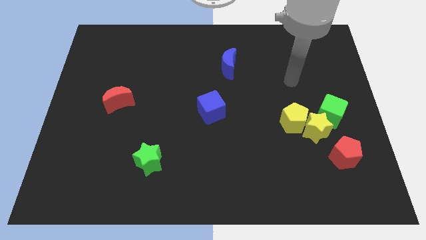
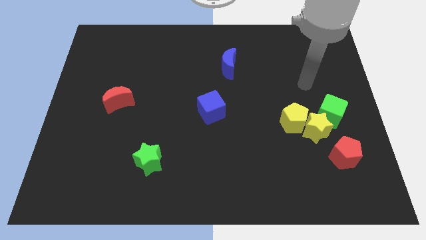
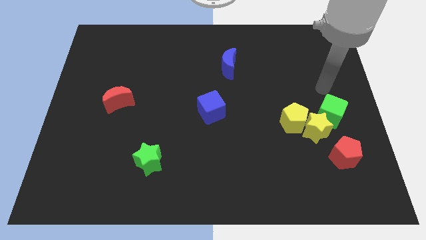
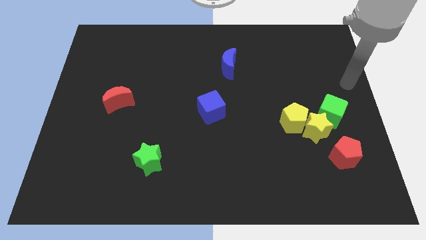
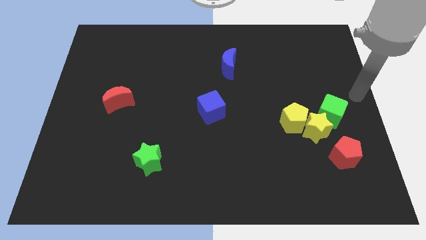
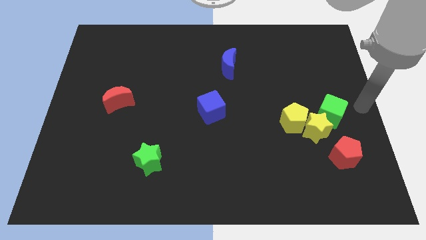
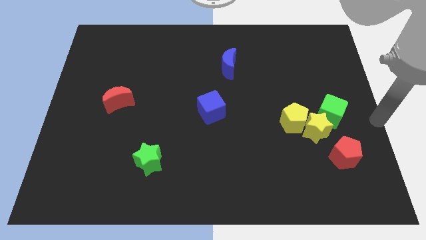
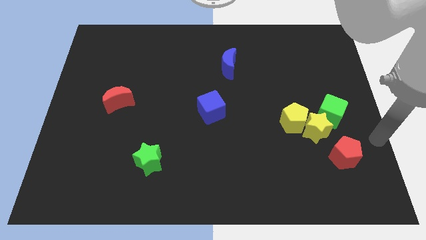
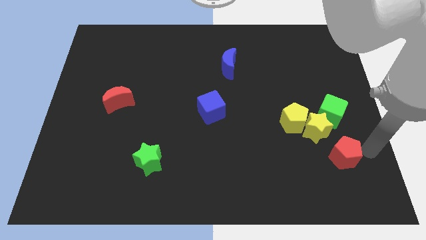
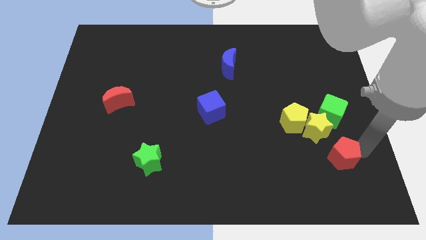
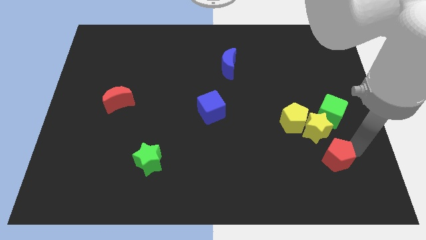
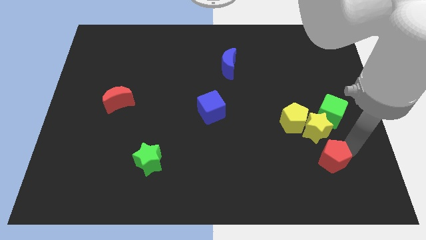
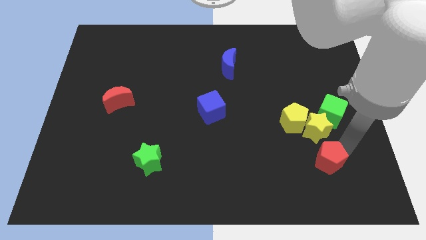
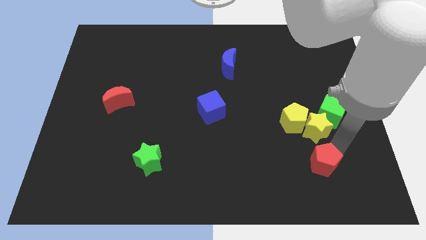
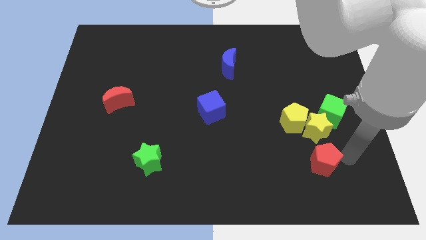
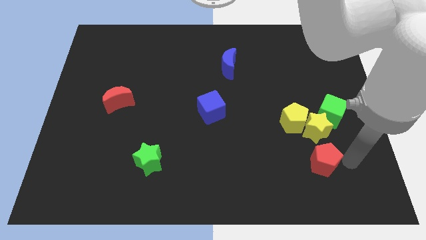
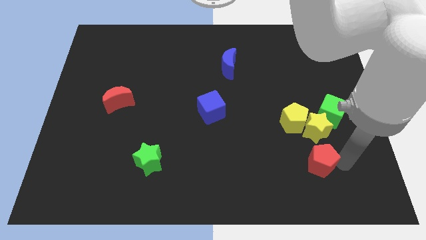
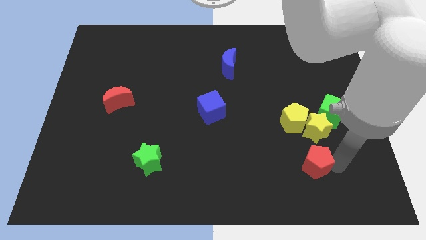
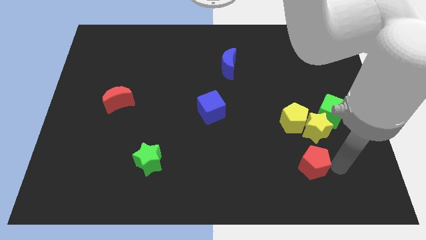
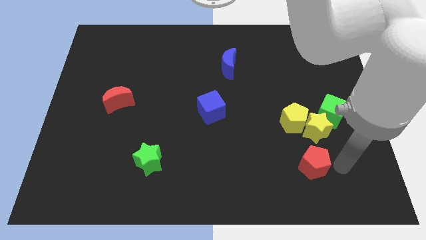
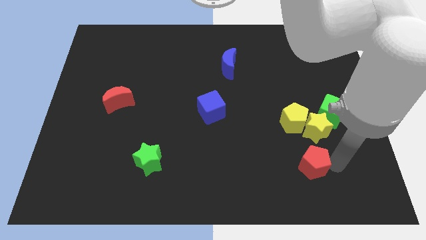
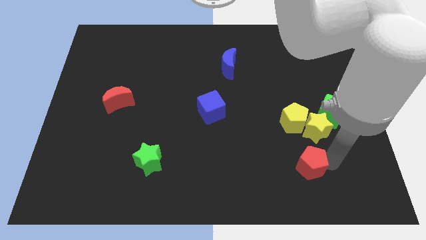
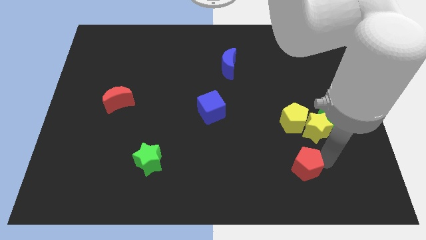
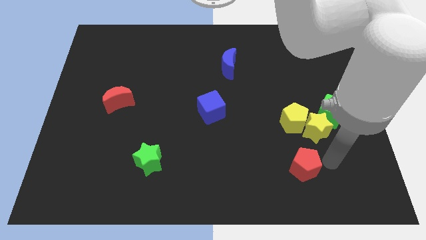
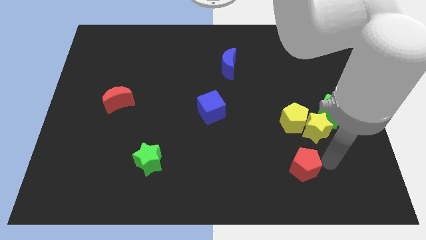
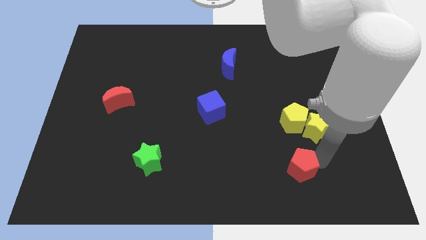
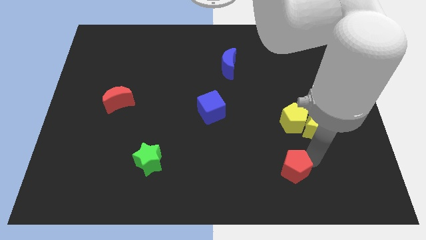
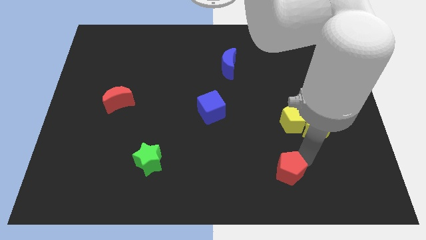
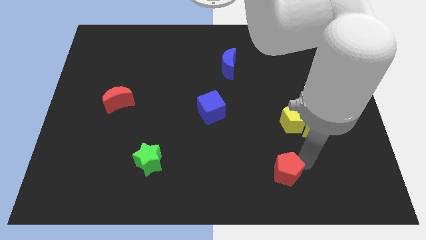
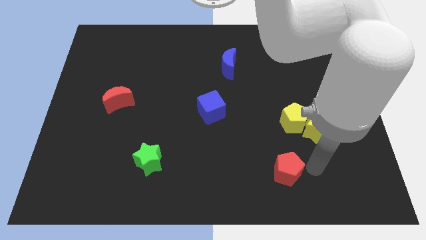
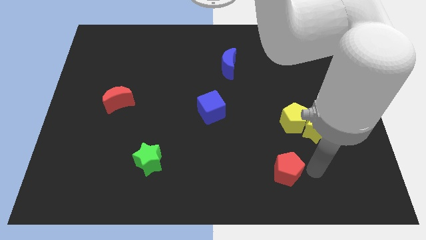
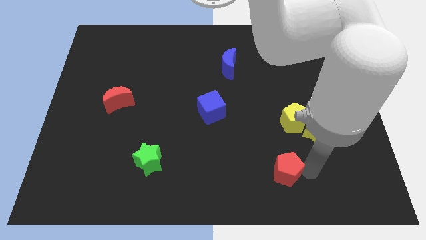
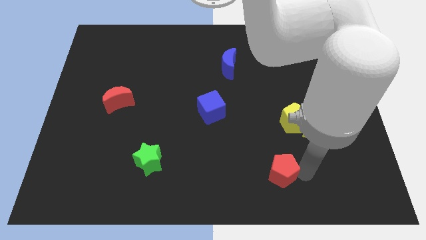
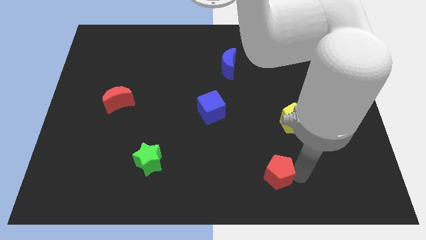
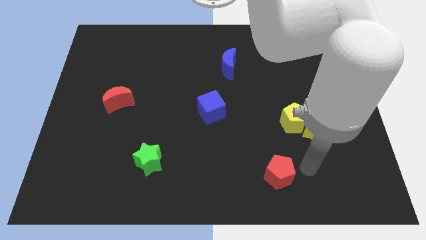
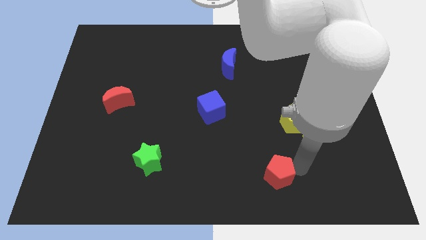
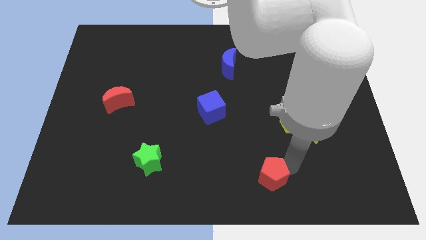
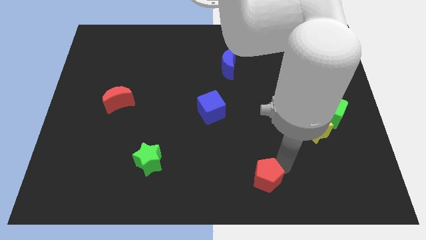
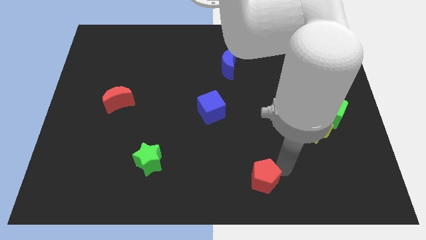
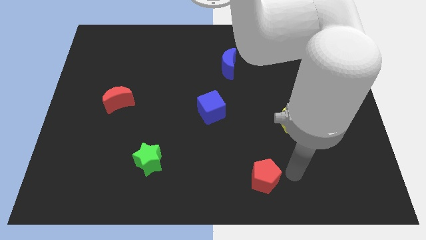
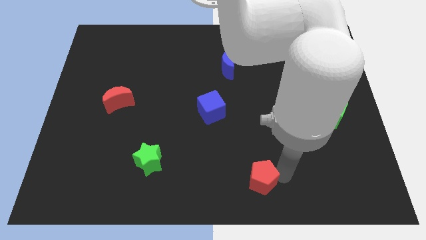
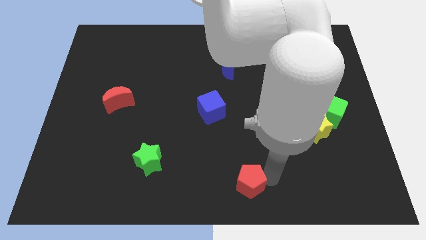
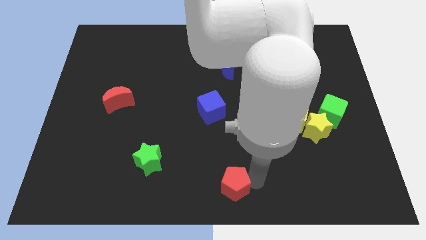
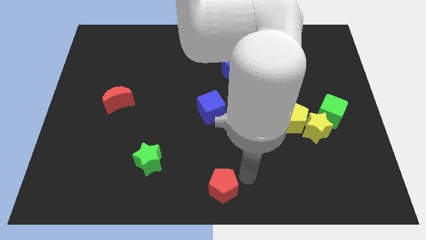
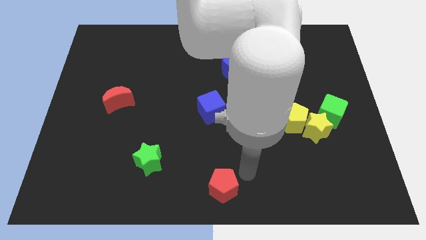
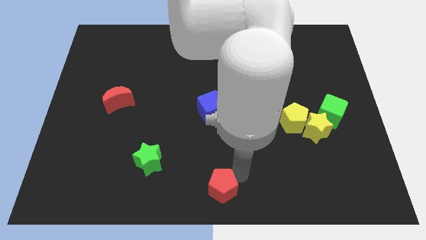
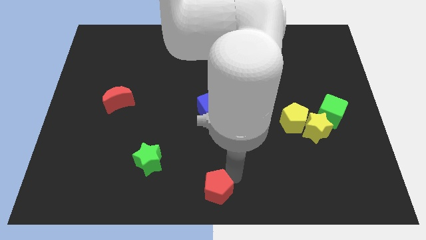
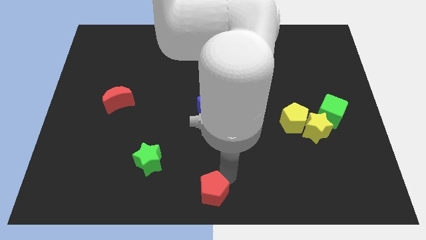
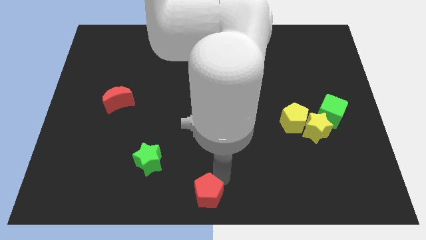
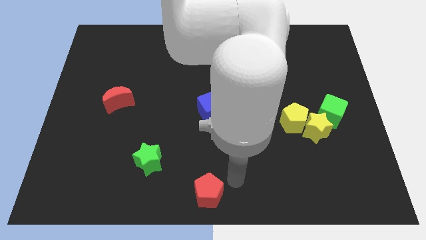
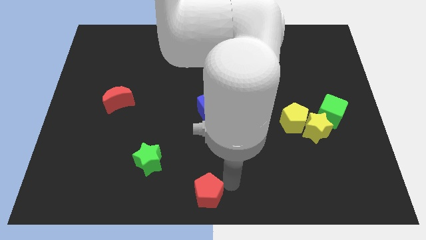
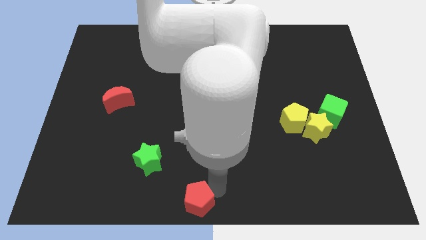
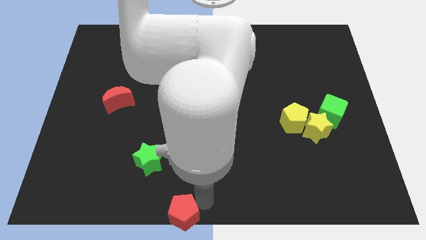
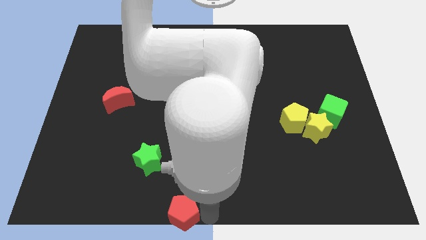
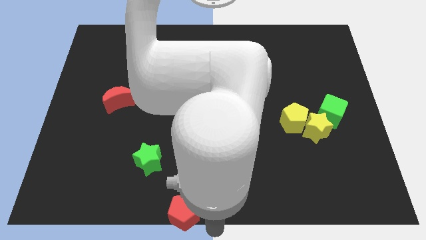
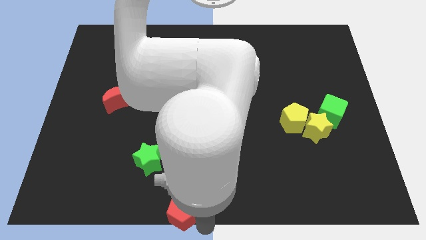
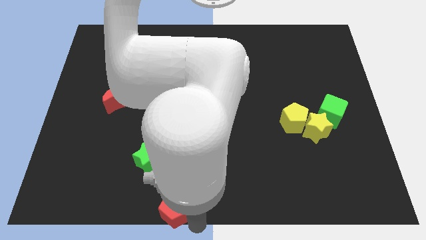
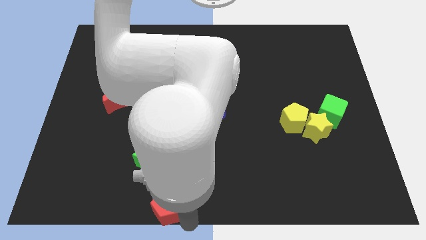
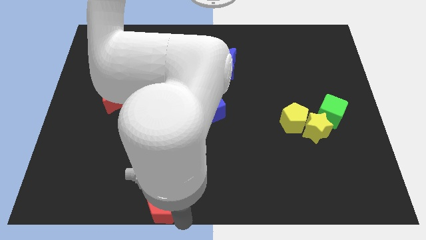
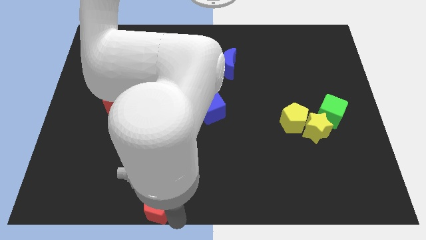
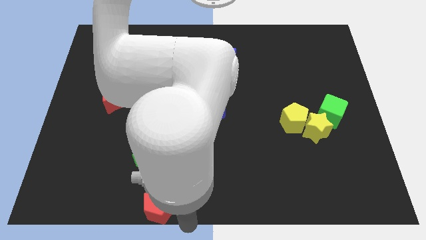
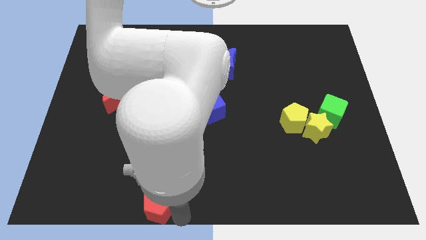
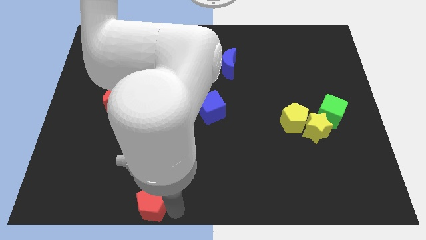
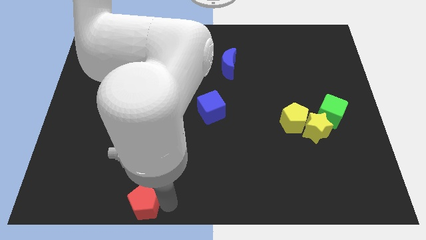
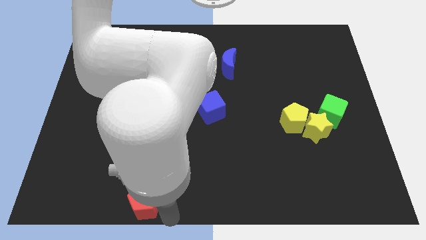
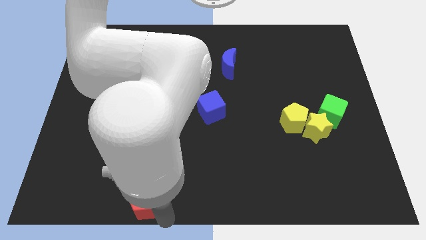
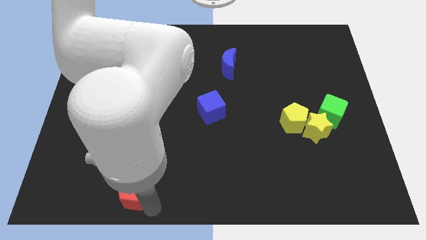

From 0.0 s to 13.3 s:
push the red pentagon to the bottom left side of the green star
